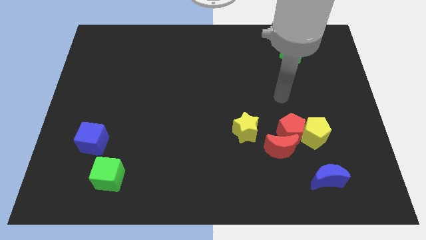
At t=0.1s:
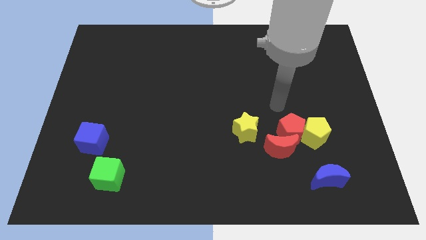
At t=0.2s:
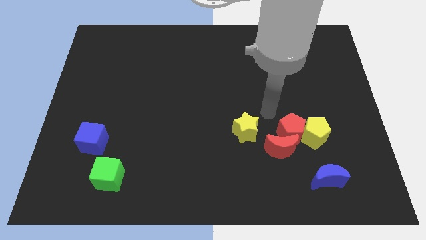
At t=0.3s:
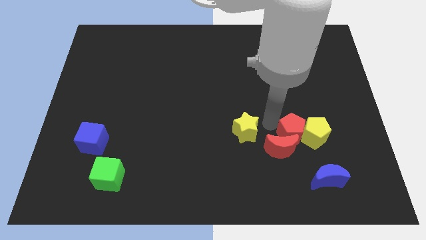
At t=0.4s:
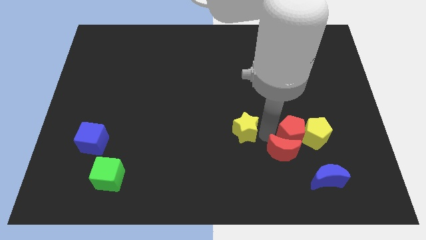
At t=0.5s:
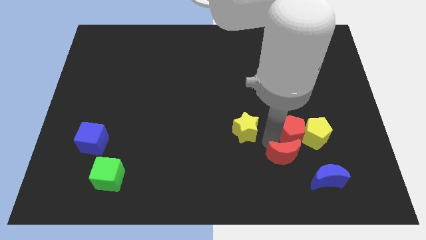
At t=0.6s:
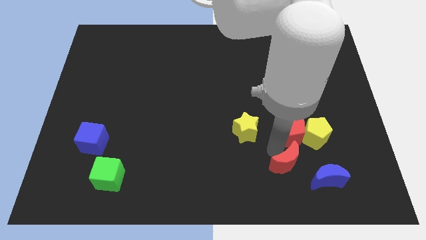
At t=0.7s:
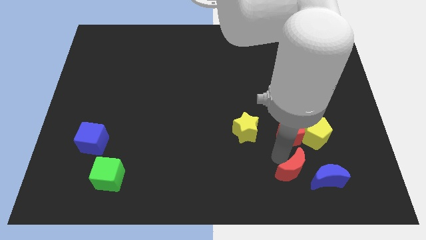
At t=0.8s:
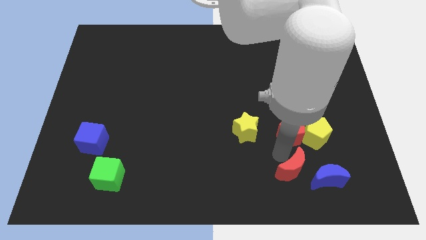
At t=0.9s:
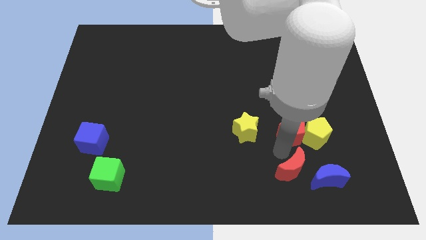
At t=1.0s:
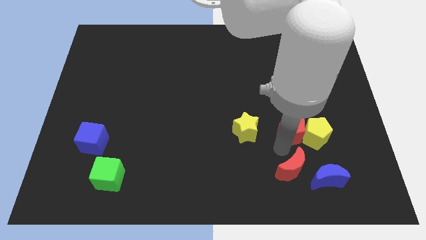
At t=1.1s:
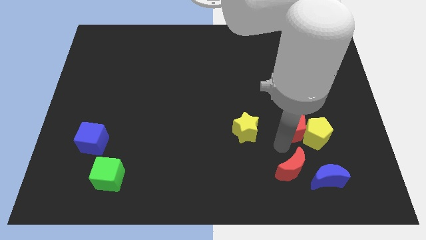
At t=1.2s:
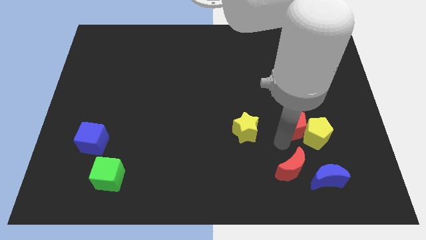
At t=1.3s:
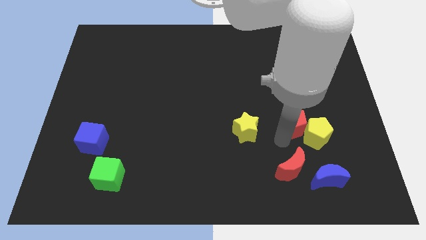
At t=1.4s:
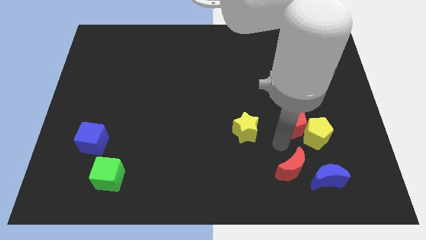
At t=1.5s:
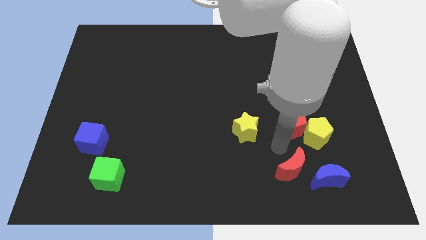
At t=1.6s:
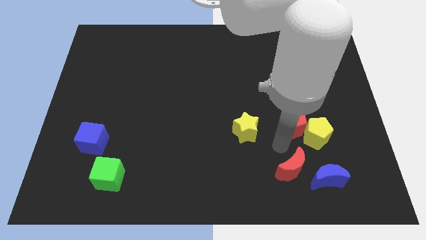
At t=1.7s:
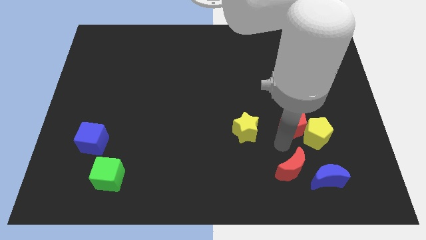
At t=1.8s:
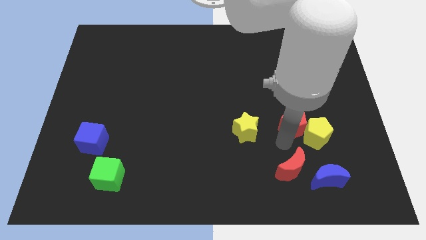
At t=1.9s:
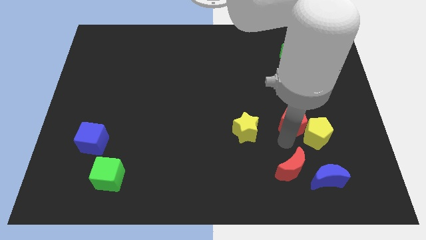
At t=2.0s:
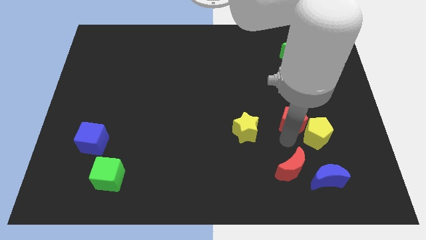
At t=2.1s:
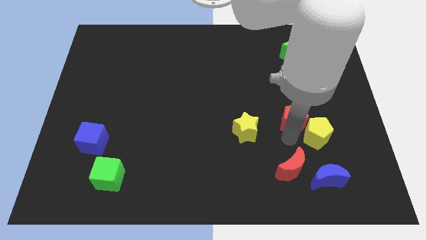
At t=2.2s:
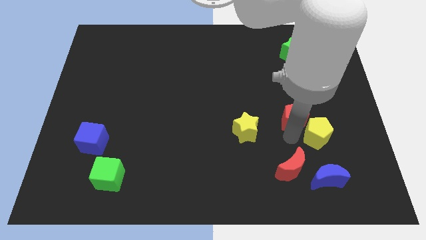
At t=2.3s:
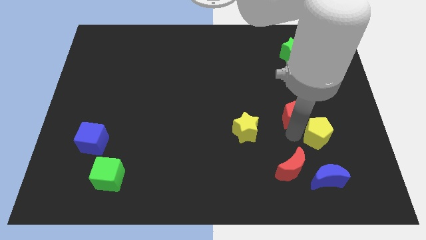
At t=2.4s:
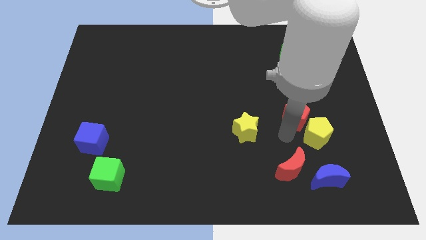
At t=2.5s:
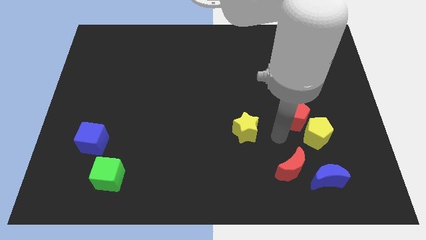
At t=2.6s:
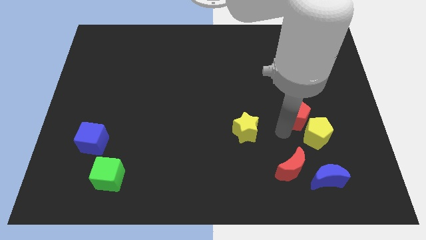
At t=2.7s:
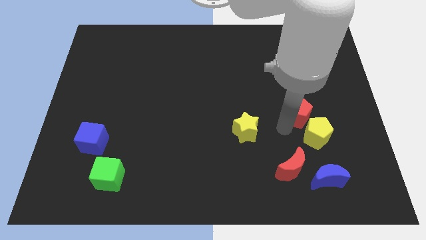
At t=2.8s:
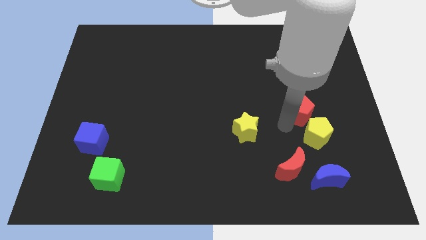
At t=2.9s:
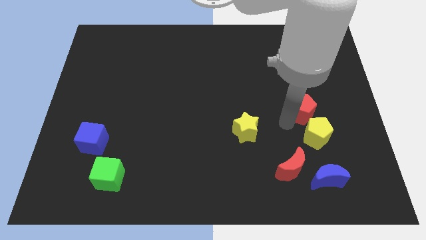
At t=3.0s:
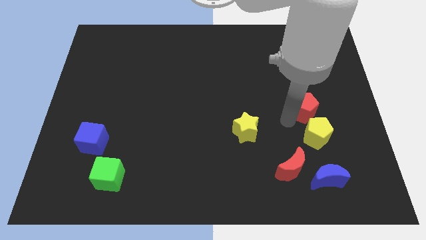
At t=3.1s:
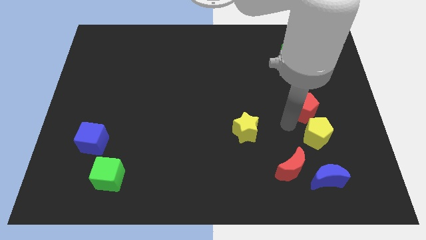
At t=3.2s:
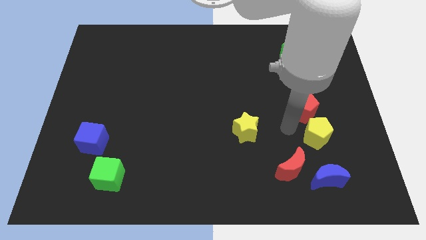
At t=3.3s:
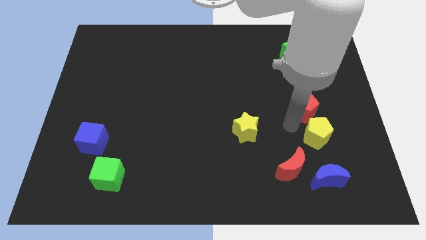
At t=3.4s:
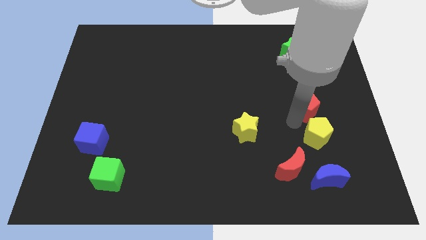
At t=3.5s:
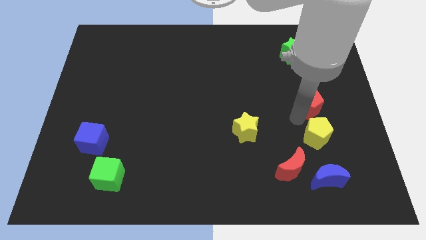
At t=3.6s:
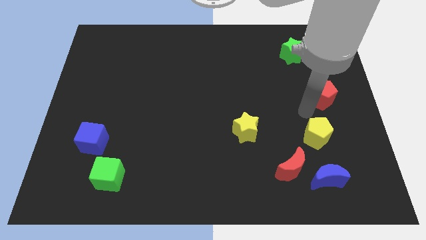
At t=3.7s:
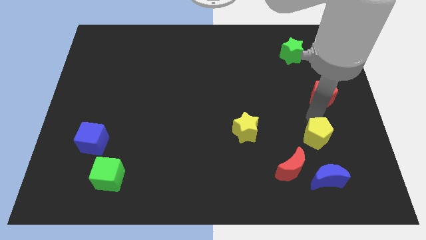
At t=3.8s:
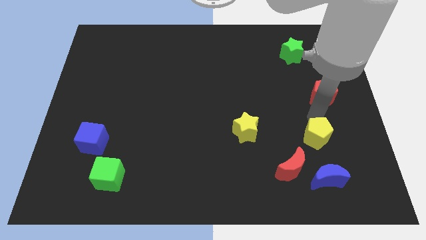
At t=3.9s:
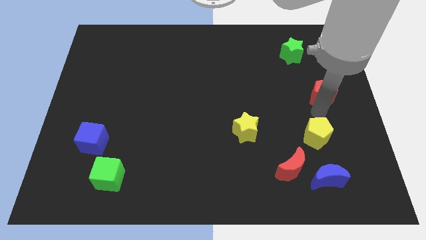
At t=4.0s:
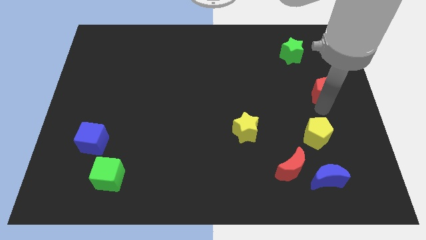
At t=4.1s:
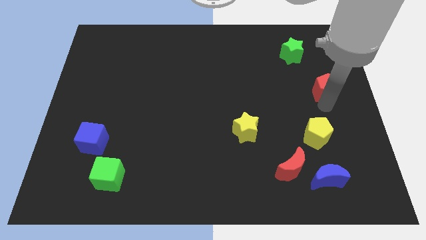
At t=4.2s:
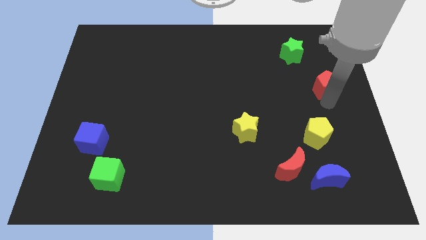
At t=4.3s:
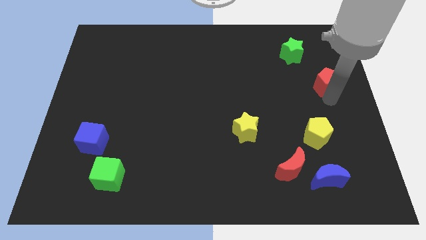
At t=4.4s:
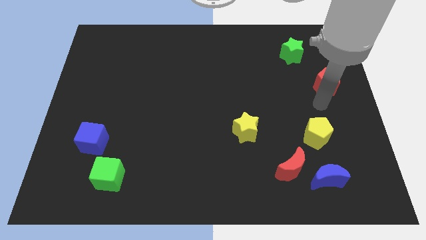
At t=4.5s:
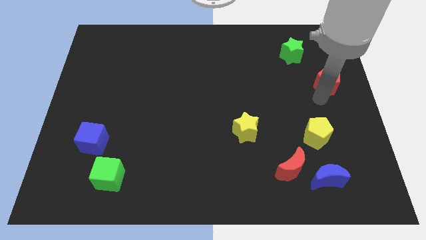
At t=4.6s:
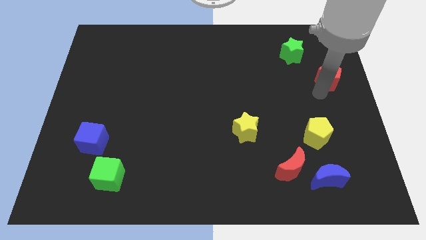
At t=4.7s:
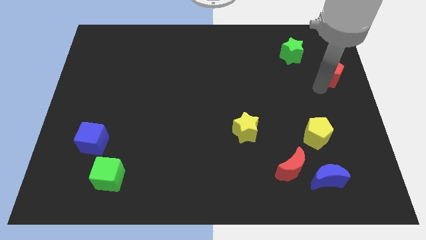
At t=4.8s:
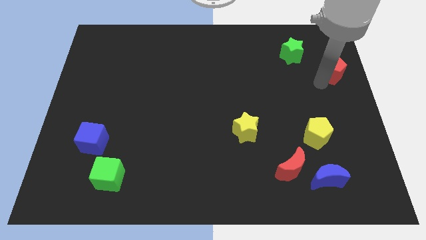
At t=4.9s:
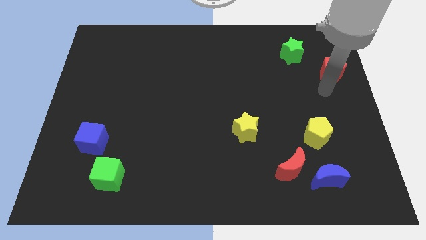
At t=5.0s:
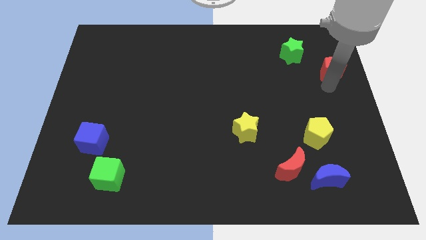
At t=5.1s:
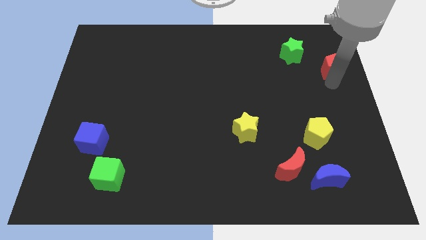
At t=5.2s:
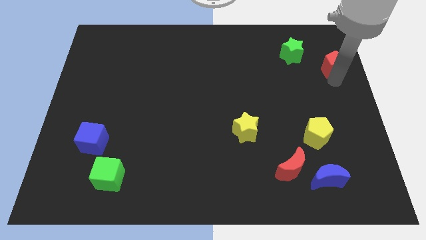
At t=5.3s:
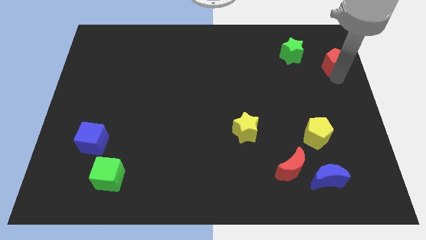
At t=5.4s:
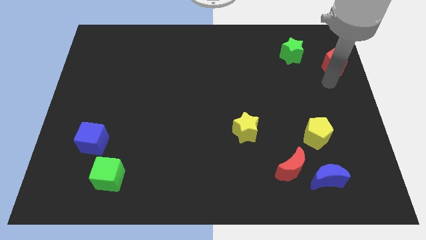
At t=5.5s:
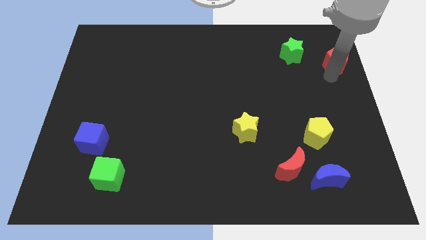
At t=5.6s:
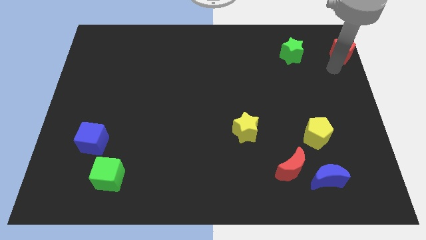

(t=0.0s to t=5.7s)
put the red pentagon to the top right corner

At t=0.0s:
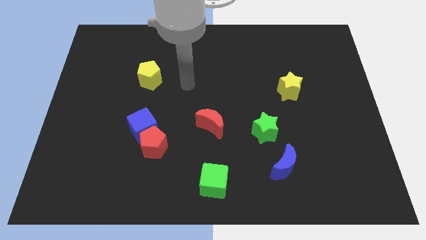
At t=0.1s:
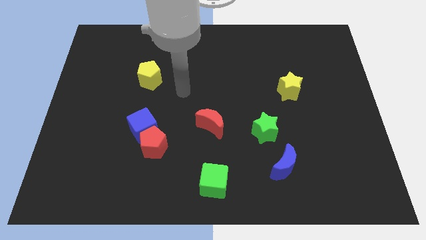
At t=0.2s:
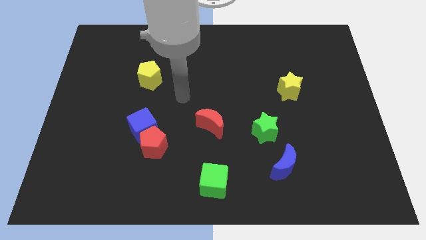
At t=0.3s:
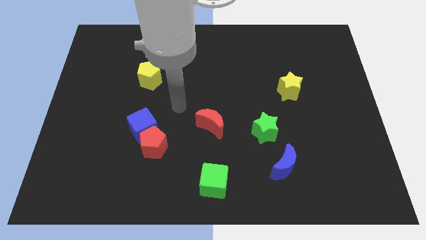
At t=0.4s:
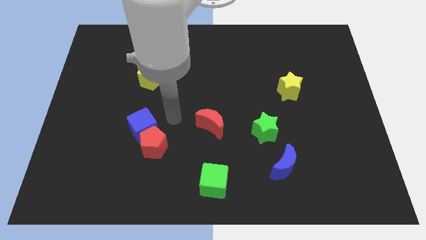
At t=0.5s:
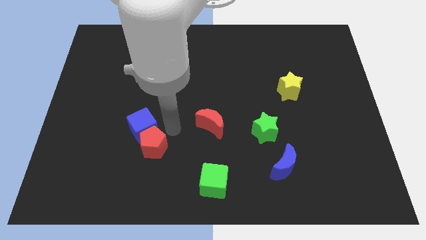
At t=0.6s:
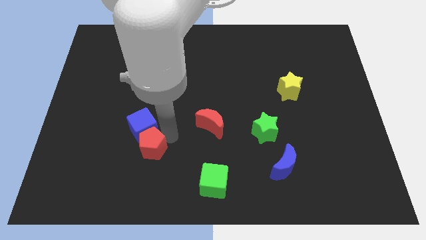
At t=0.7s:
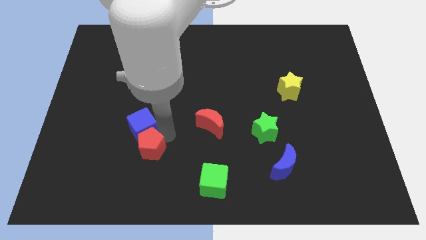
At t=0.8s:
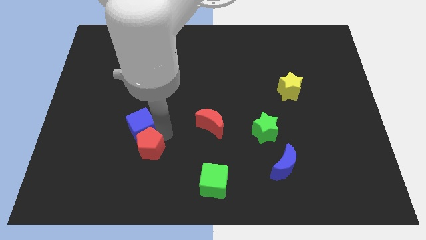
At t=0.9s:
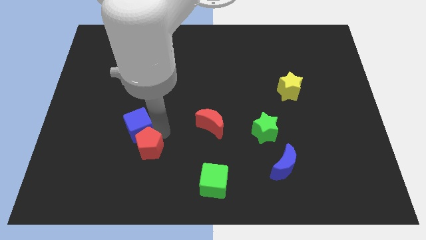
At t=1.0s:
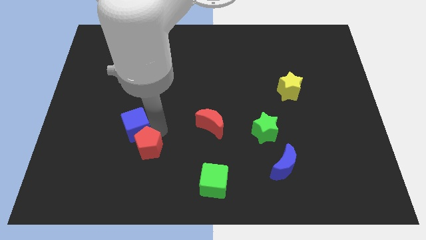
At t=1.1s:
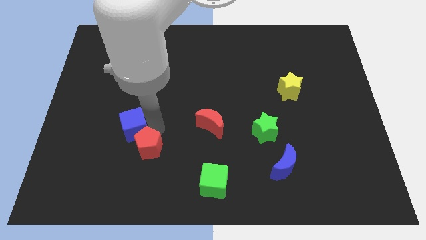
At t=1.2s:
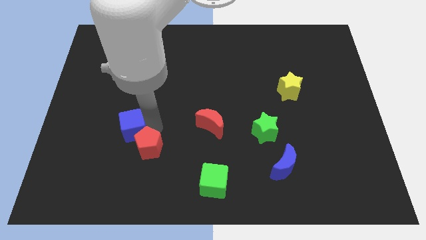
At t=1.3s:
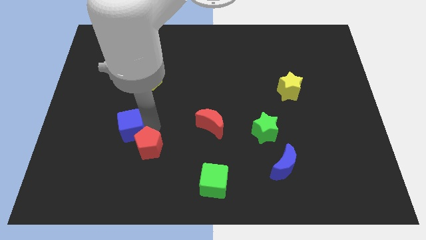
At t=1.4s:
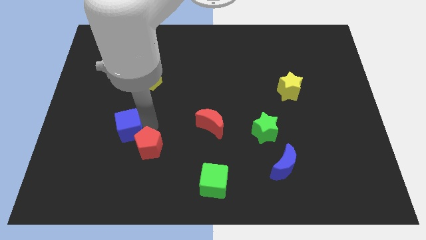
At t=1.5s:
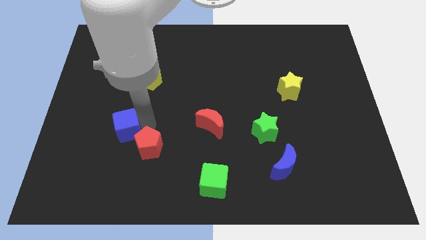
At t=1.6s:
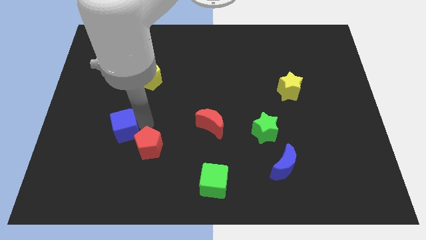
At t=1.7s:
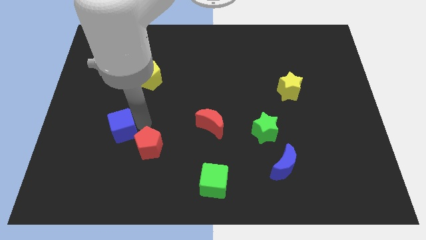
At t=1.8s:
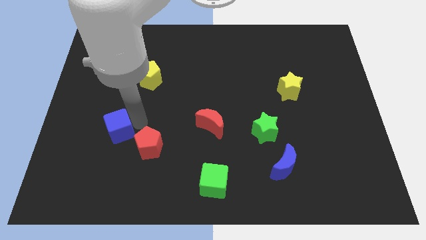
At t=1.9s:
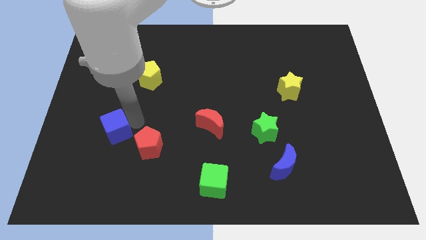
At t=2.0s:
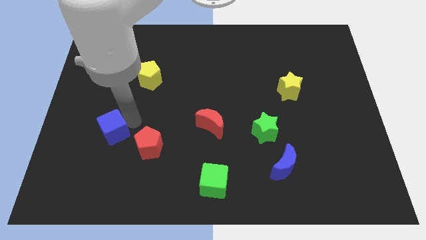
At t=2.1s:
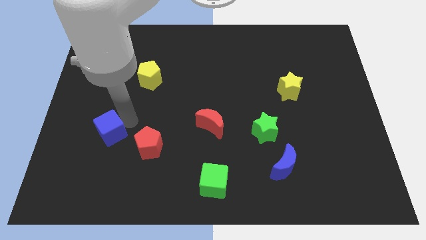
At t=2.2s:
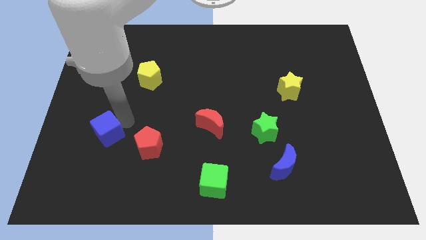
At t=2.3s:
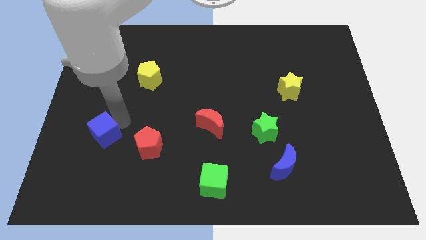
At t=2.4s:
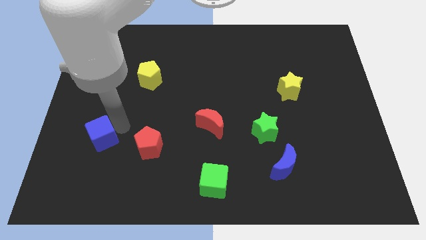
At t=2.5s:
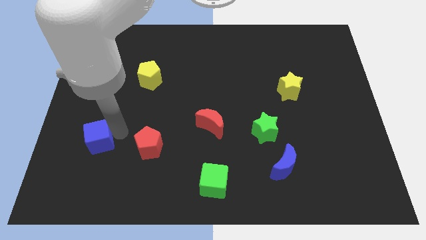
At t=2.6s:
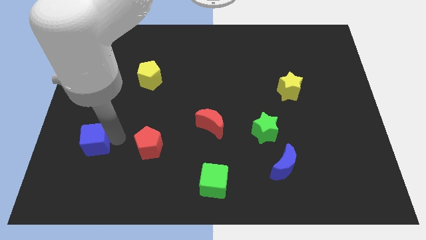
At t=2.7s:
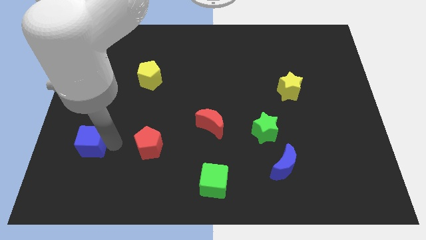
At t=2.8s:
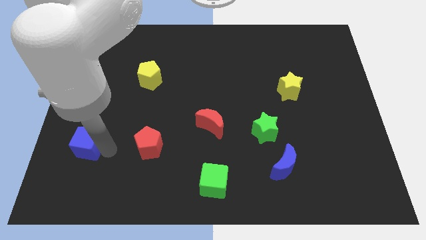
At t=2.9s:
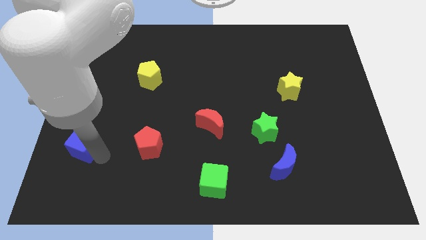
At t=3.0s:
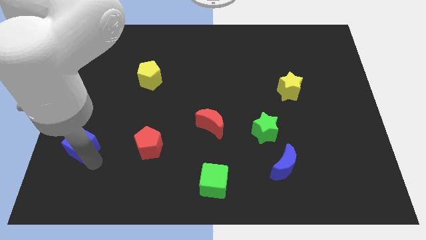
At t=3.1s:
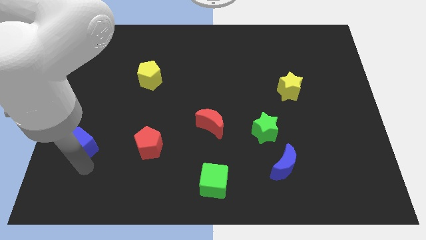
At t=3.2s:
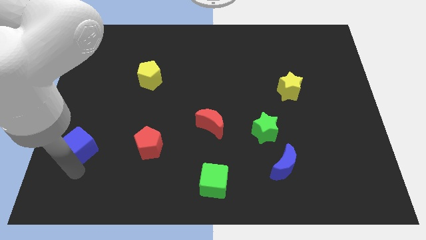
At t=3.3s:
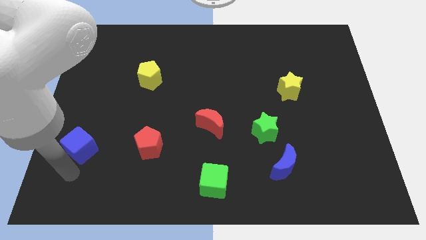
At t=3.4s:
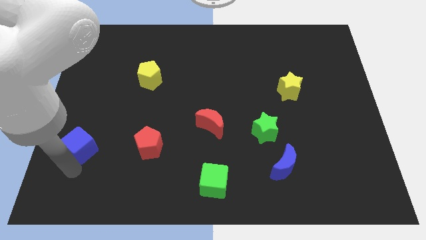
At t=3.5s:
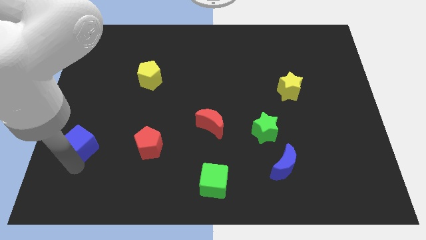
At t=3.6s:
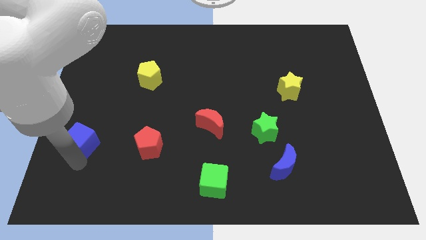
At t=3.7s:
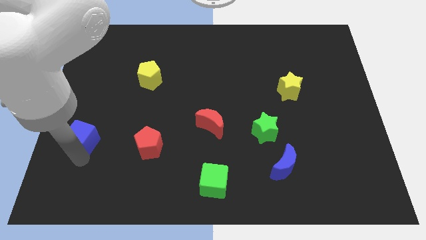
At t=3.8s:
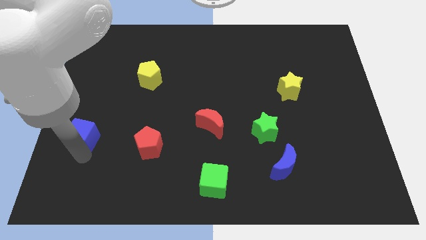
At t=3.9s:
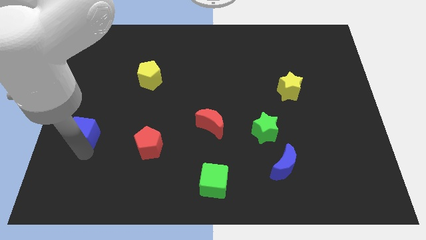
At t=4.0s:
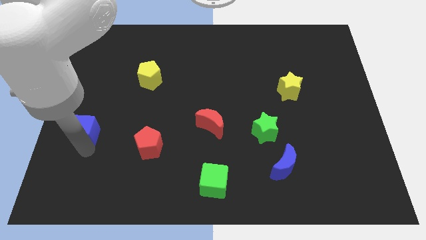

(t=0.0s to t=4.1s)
put the blue cube to the center left
